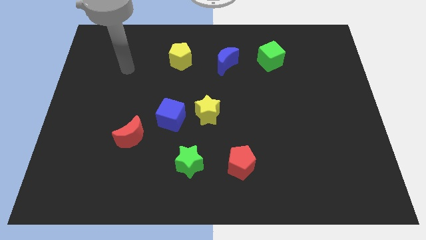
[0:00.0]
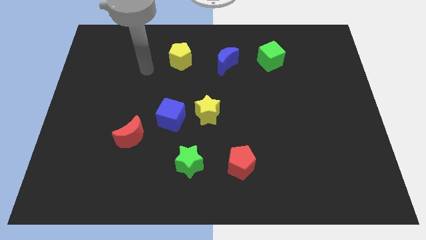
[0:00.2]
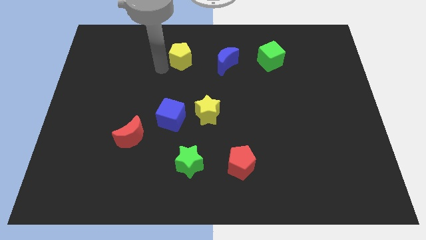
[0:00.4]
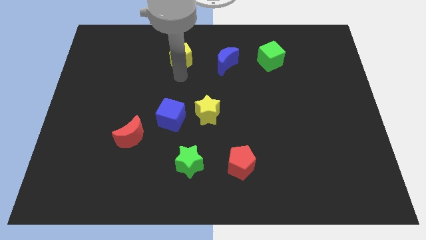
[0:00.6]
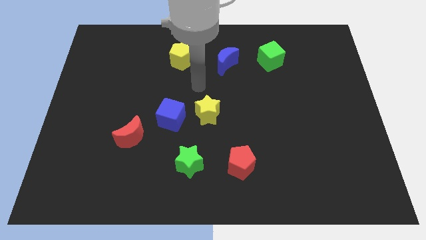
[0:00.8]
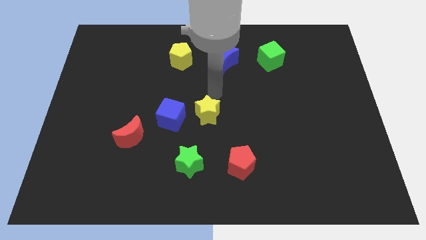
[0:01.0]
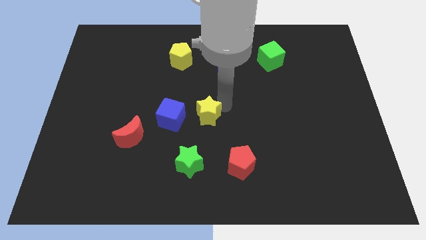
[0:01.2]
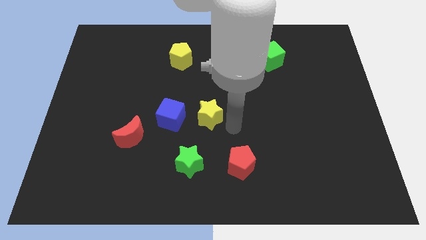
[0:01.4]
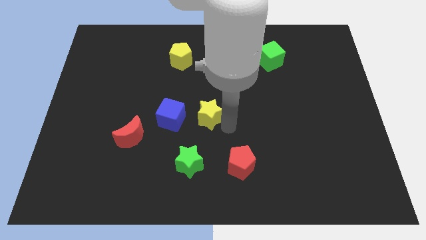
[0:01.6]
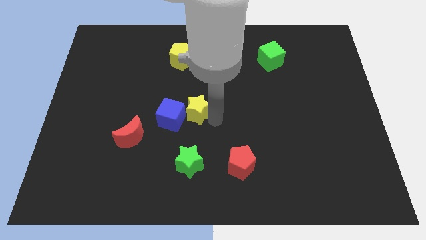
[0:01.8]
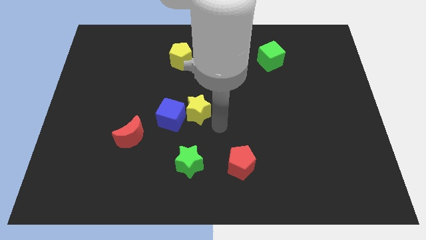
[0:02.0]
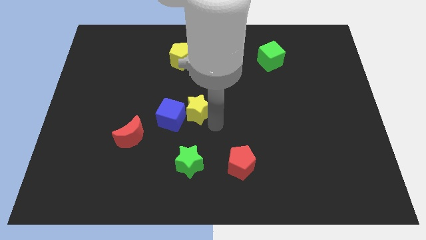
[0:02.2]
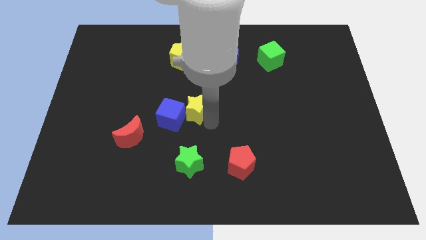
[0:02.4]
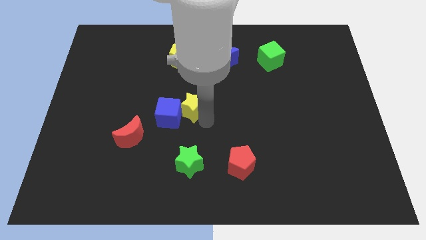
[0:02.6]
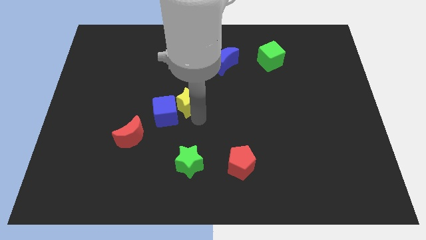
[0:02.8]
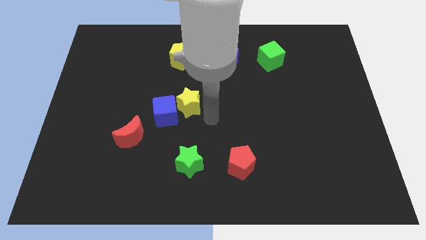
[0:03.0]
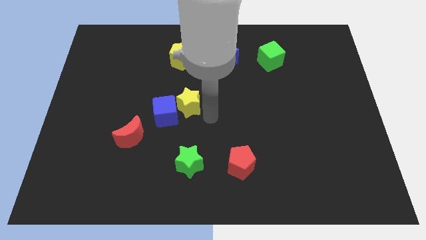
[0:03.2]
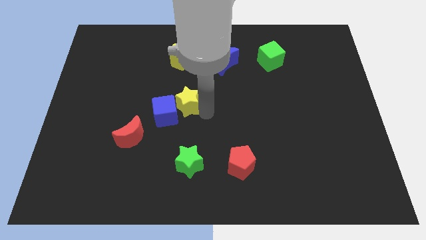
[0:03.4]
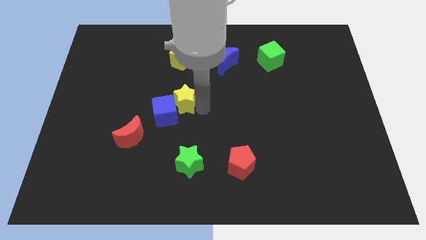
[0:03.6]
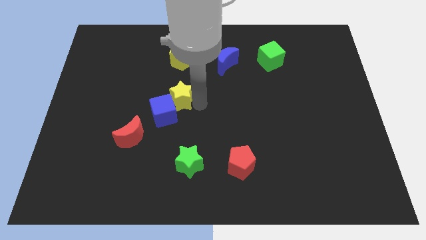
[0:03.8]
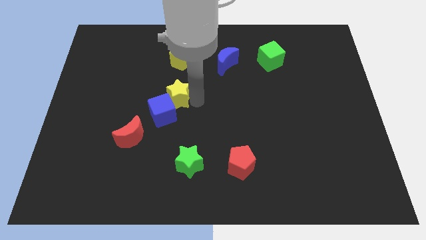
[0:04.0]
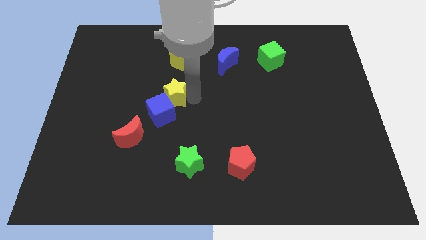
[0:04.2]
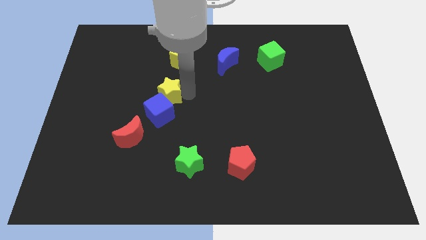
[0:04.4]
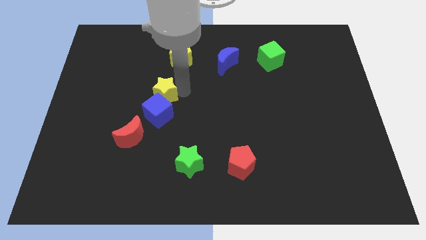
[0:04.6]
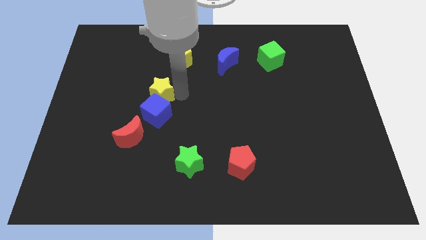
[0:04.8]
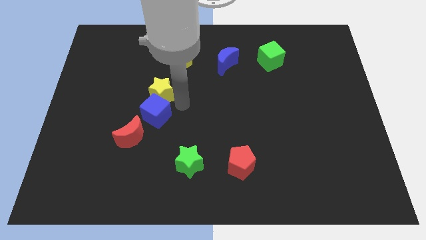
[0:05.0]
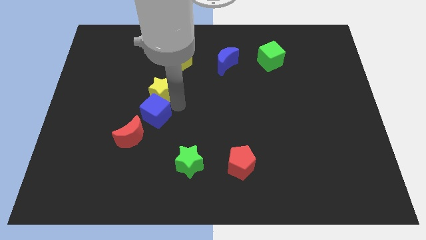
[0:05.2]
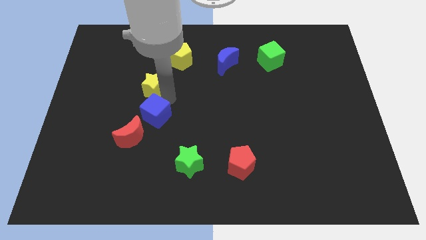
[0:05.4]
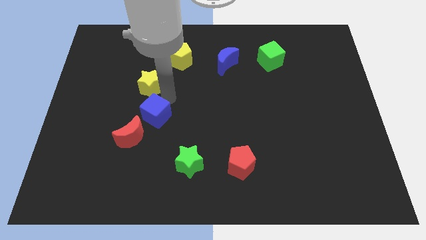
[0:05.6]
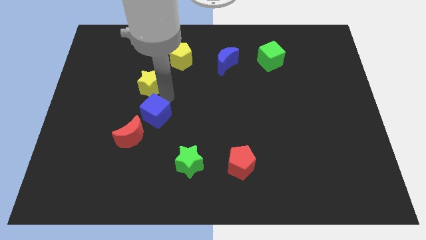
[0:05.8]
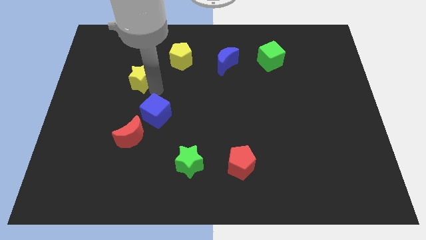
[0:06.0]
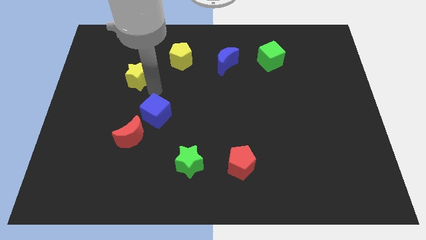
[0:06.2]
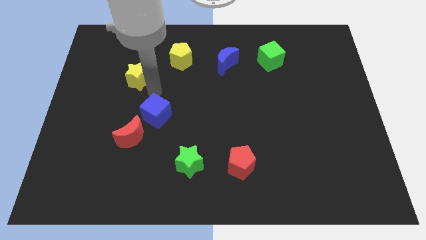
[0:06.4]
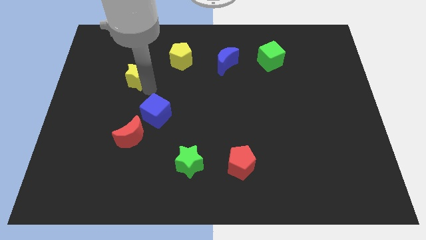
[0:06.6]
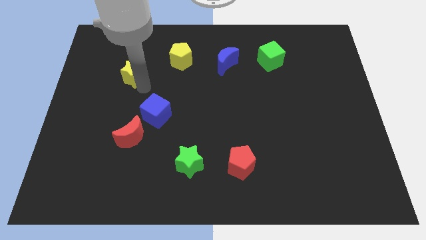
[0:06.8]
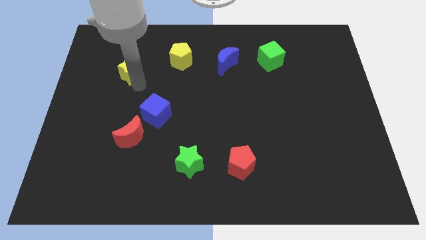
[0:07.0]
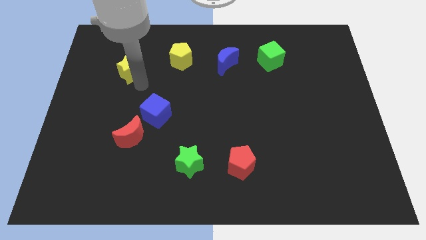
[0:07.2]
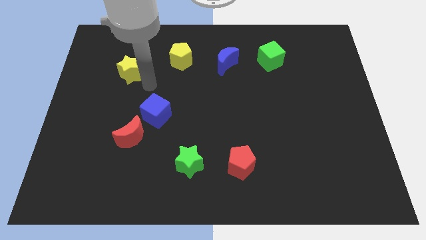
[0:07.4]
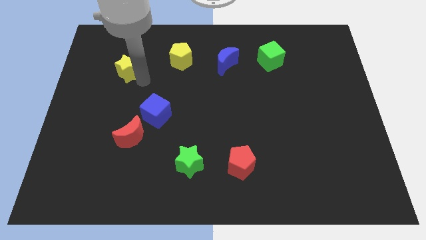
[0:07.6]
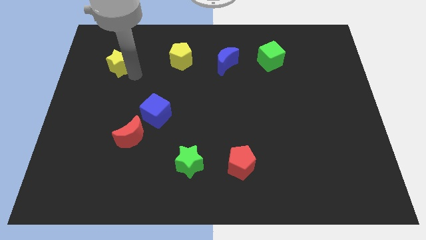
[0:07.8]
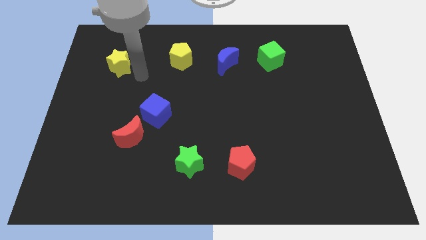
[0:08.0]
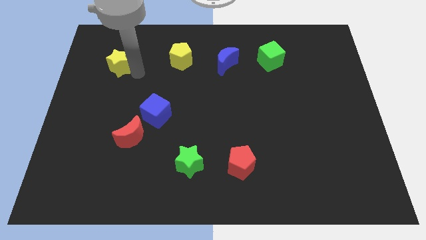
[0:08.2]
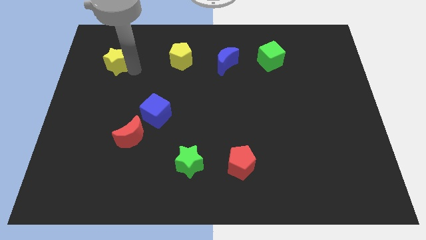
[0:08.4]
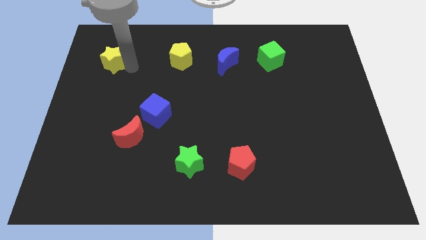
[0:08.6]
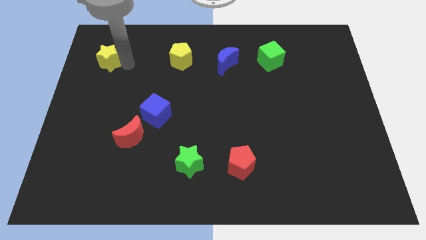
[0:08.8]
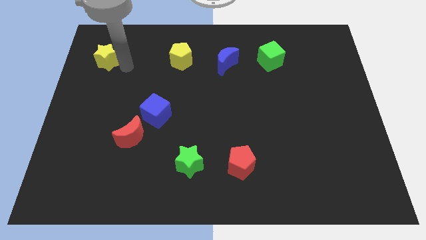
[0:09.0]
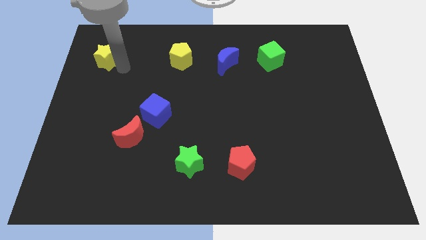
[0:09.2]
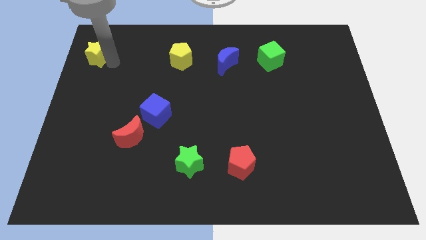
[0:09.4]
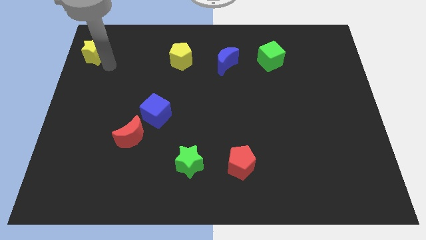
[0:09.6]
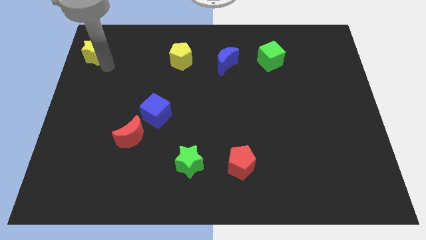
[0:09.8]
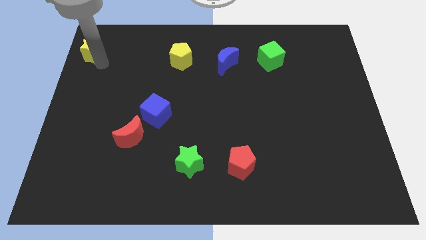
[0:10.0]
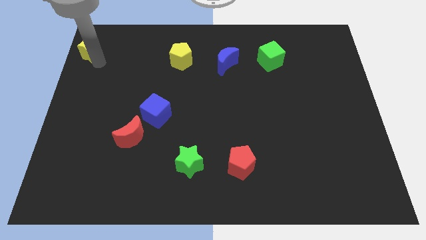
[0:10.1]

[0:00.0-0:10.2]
push the yellow star to the upper left corner

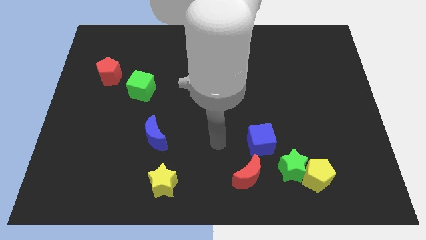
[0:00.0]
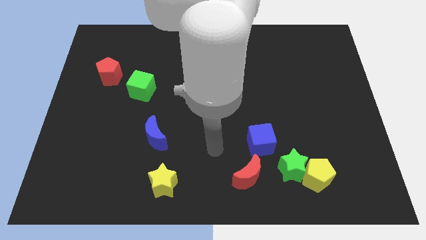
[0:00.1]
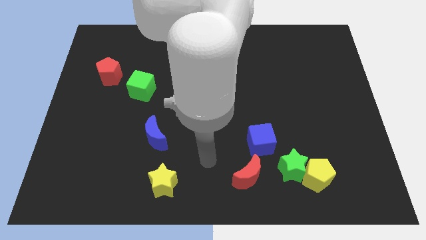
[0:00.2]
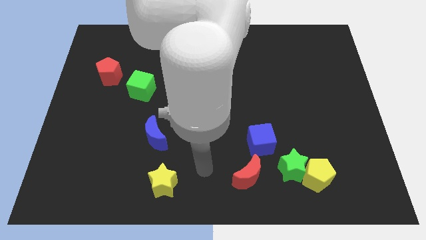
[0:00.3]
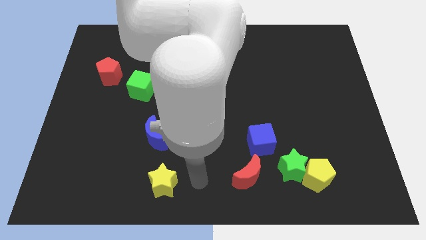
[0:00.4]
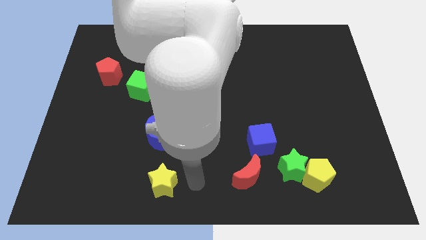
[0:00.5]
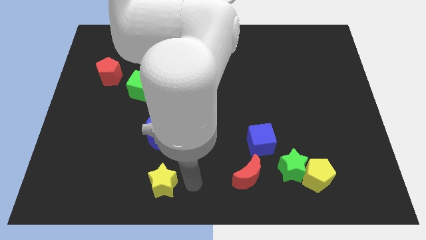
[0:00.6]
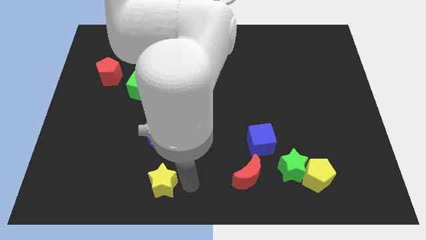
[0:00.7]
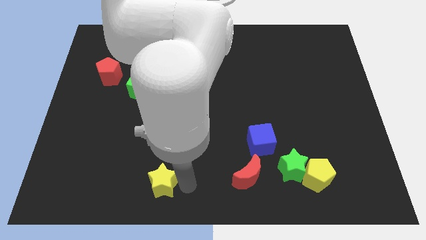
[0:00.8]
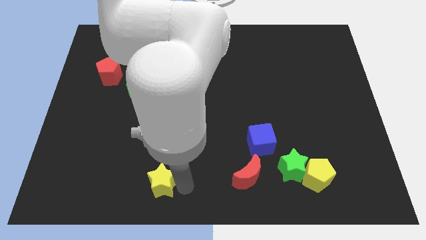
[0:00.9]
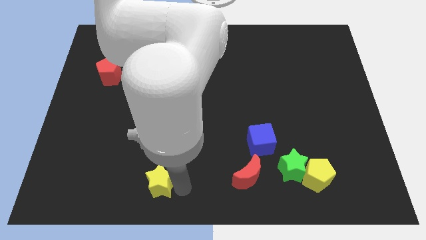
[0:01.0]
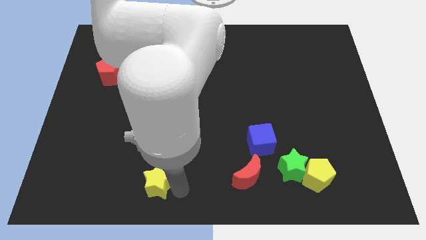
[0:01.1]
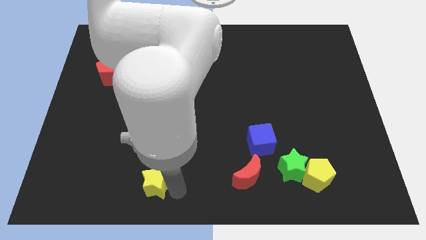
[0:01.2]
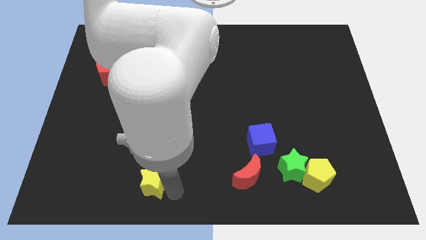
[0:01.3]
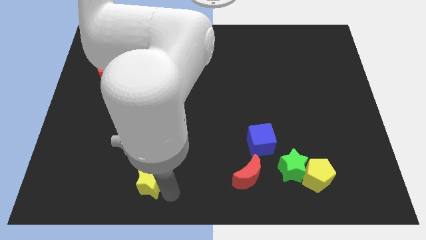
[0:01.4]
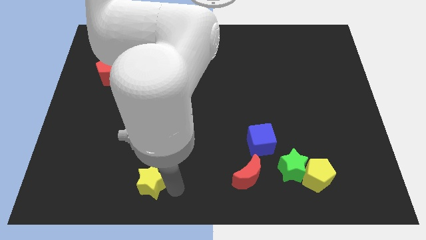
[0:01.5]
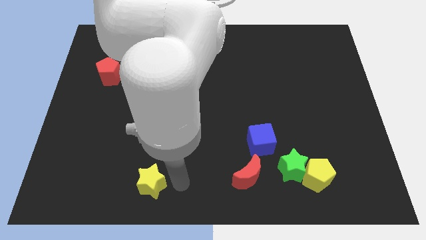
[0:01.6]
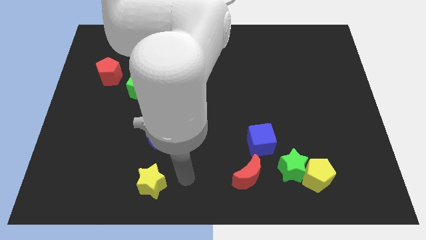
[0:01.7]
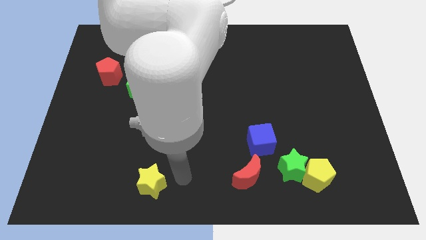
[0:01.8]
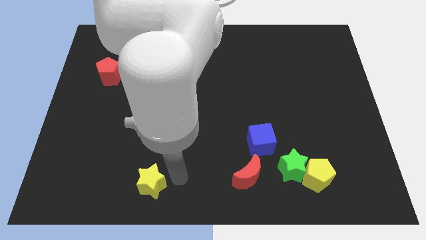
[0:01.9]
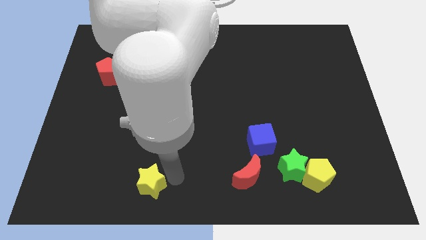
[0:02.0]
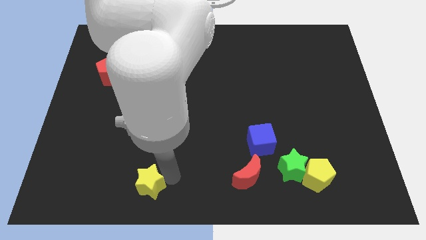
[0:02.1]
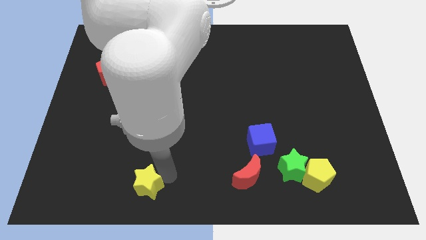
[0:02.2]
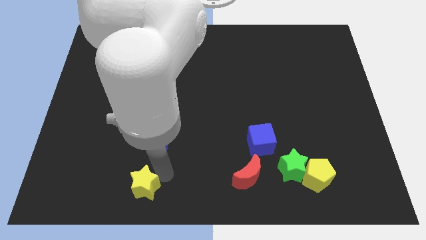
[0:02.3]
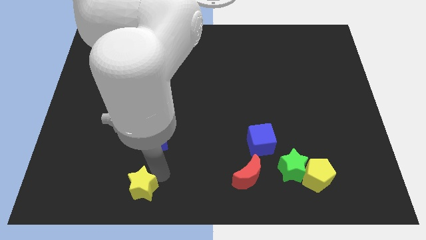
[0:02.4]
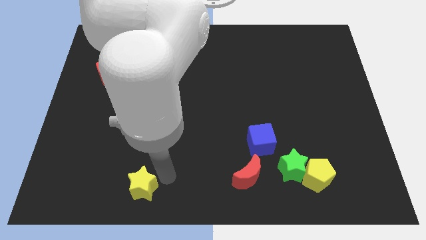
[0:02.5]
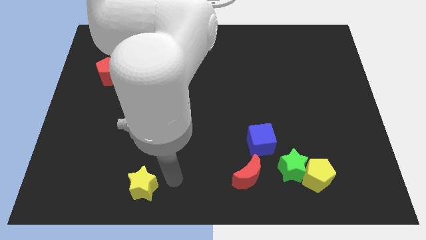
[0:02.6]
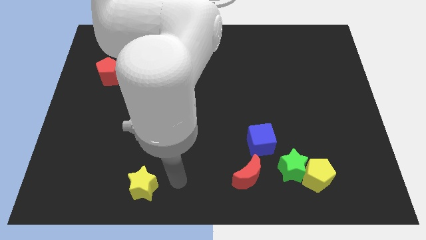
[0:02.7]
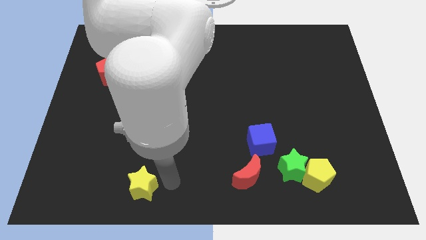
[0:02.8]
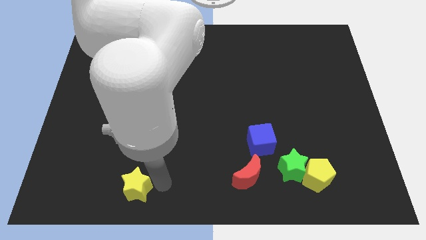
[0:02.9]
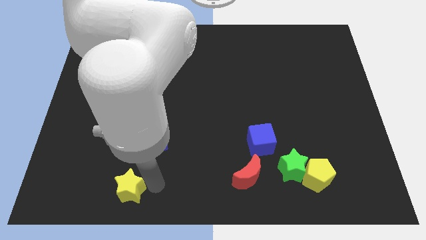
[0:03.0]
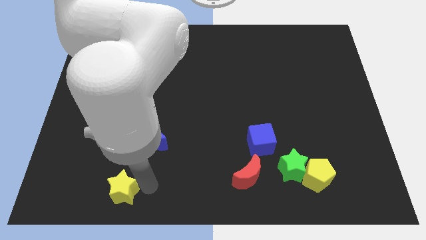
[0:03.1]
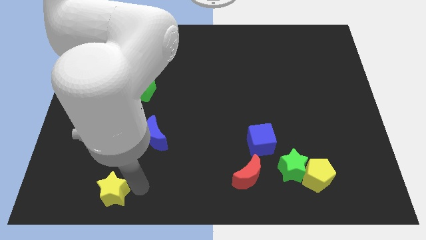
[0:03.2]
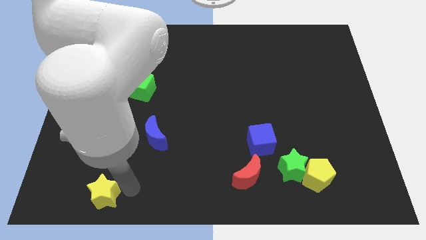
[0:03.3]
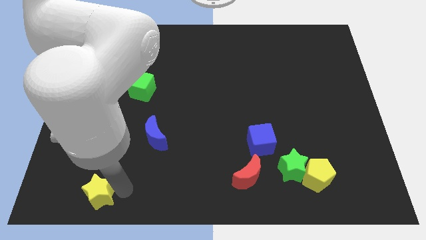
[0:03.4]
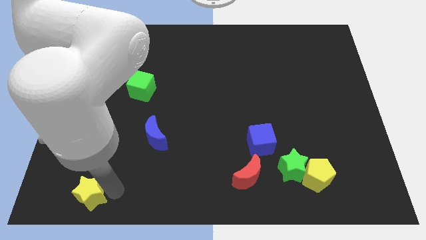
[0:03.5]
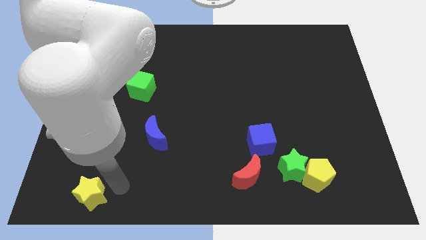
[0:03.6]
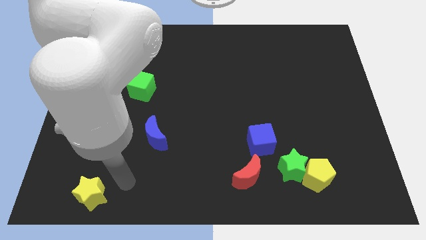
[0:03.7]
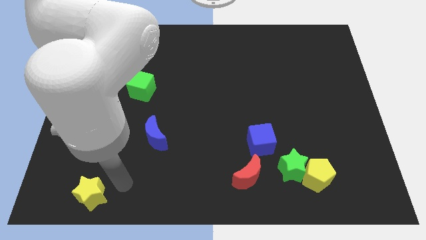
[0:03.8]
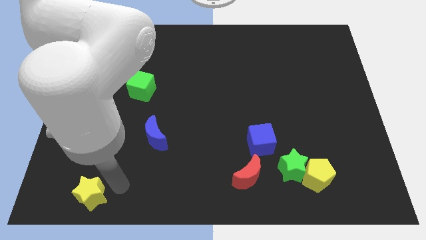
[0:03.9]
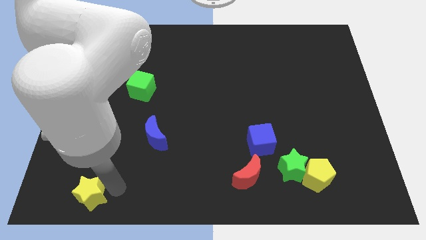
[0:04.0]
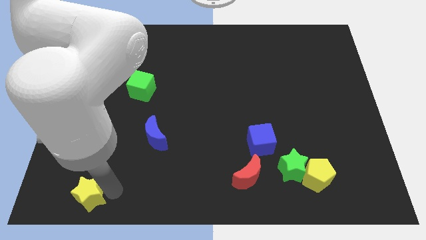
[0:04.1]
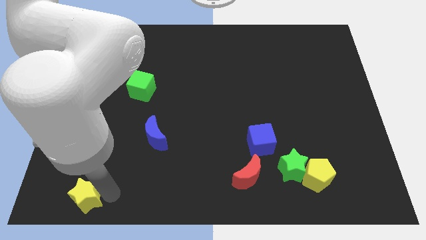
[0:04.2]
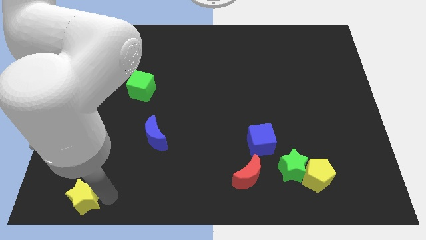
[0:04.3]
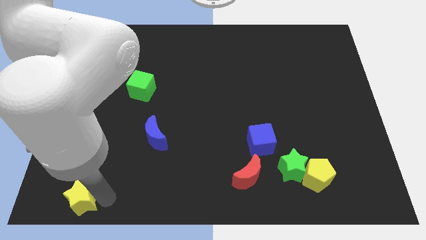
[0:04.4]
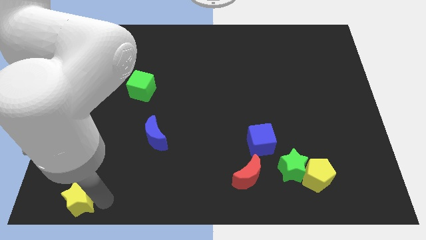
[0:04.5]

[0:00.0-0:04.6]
move the yellow star to the bottom left corner
